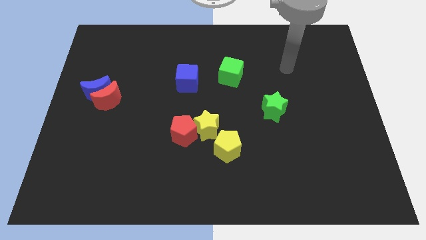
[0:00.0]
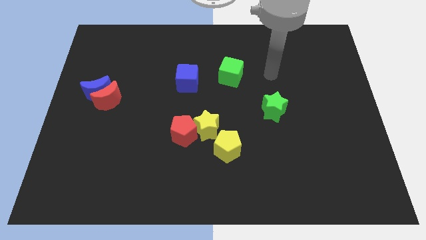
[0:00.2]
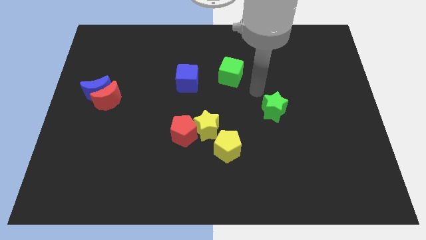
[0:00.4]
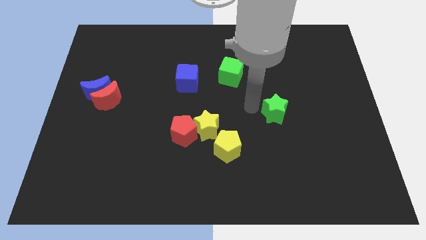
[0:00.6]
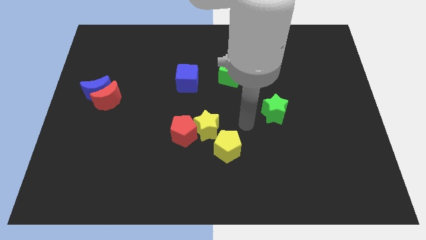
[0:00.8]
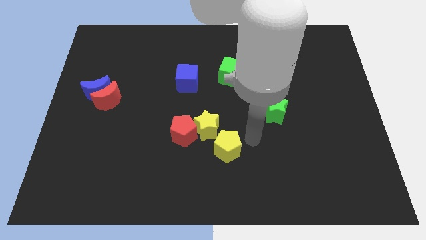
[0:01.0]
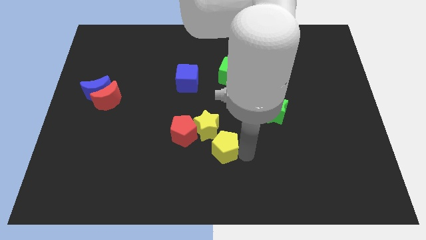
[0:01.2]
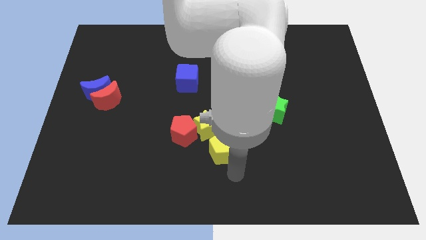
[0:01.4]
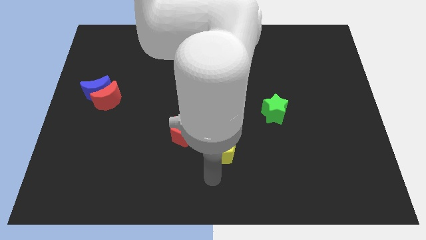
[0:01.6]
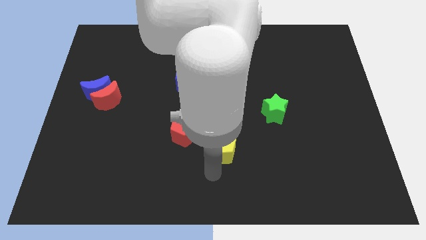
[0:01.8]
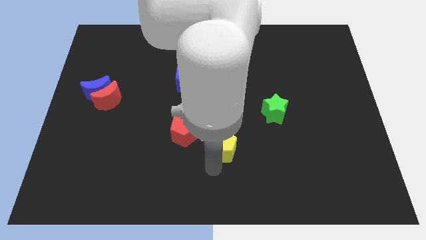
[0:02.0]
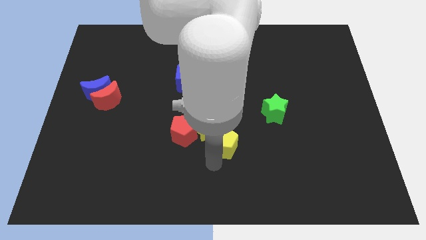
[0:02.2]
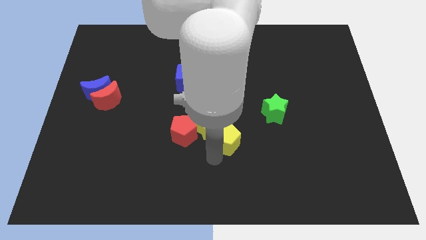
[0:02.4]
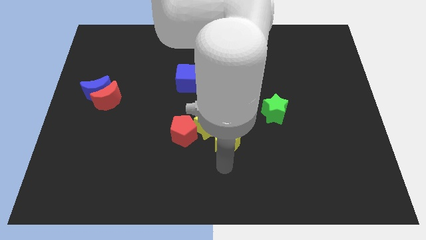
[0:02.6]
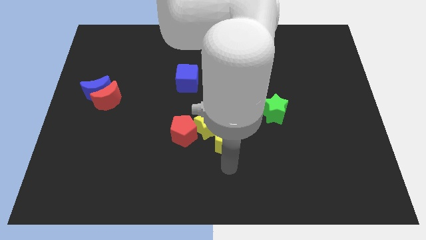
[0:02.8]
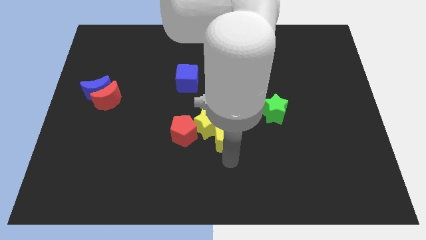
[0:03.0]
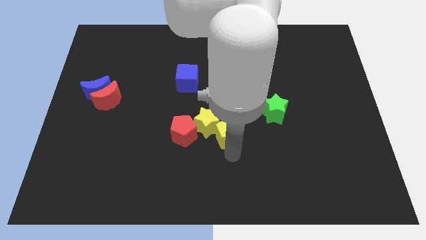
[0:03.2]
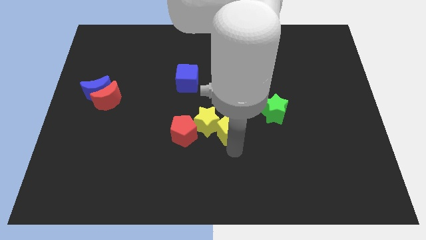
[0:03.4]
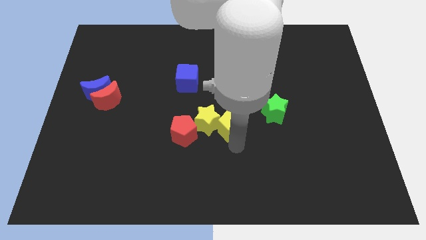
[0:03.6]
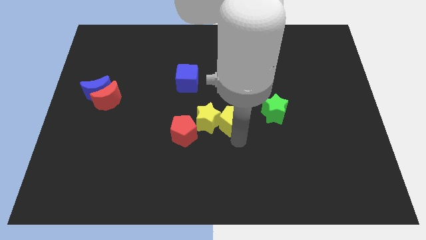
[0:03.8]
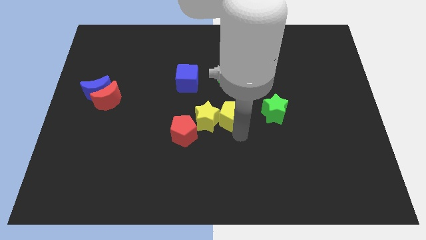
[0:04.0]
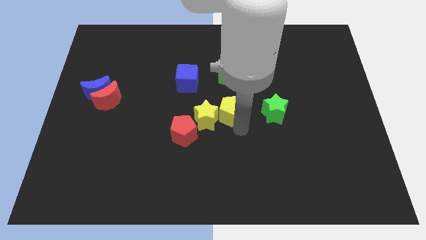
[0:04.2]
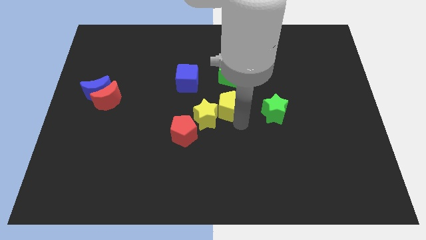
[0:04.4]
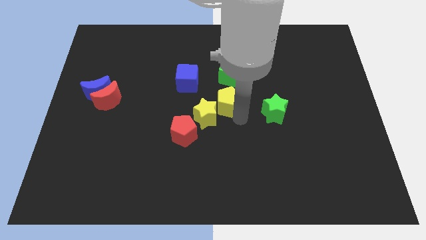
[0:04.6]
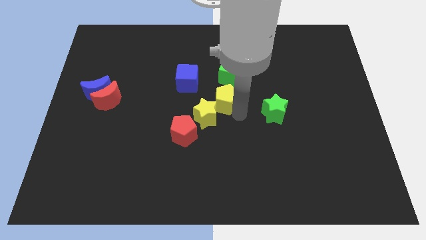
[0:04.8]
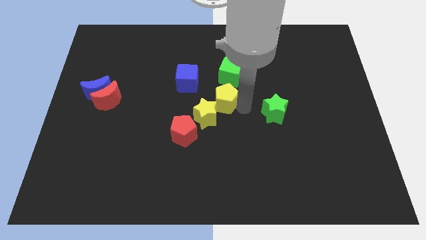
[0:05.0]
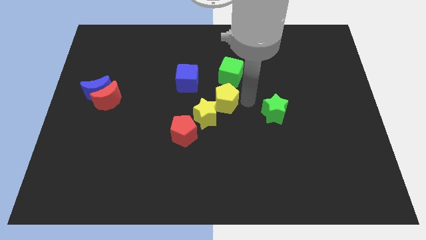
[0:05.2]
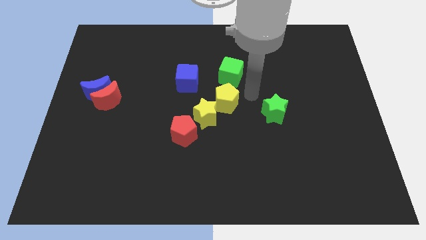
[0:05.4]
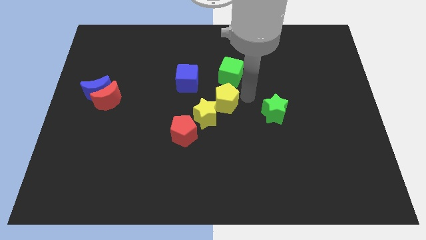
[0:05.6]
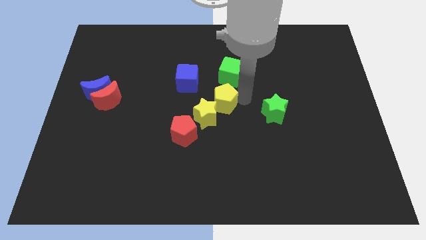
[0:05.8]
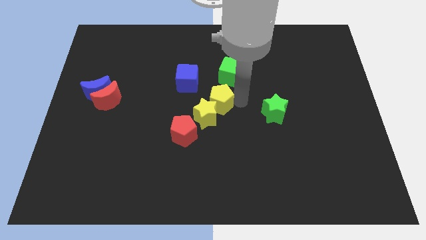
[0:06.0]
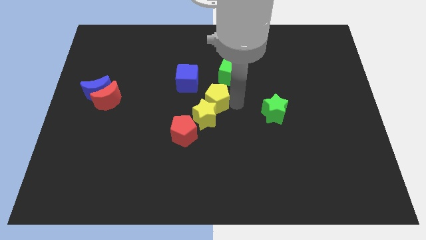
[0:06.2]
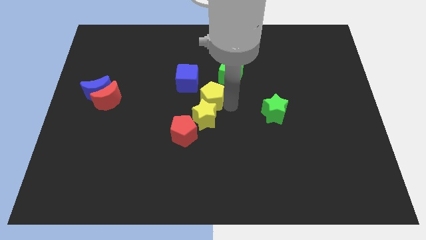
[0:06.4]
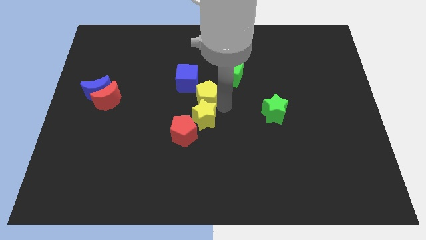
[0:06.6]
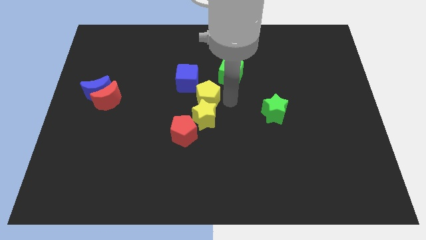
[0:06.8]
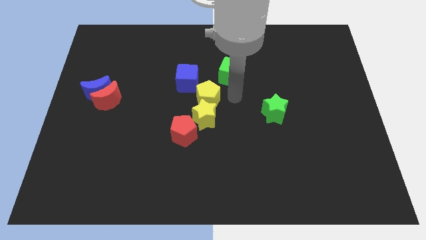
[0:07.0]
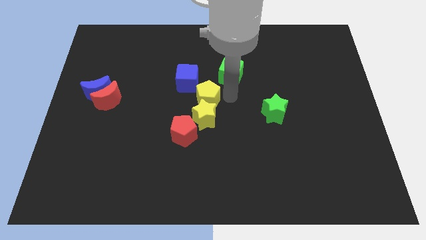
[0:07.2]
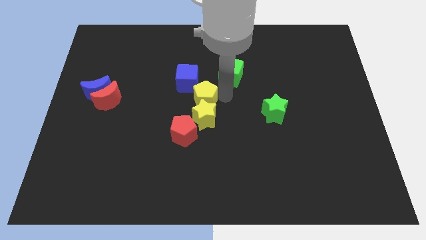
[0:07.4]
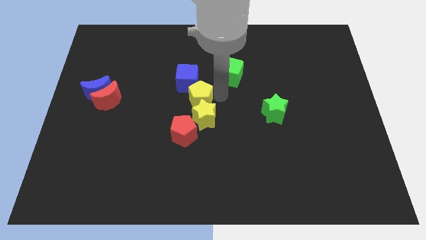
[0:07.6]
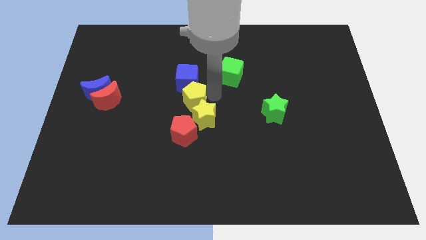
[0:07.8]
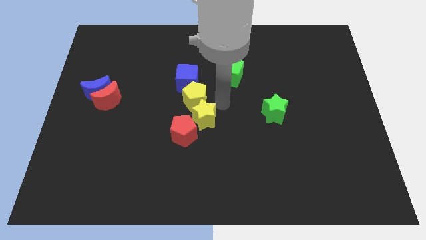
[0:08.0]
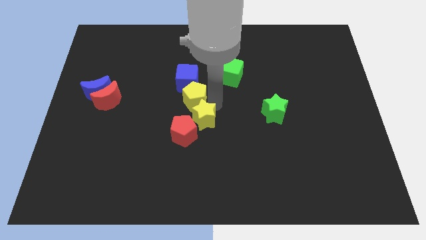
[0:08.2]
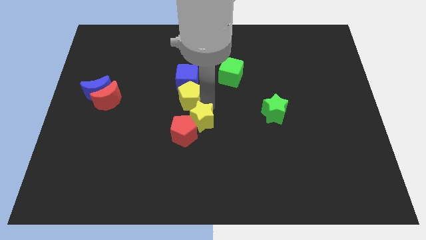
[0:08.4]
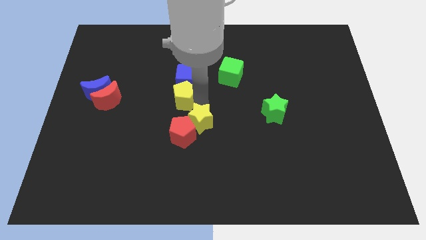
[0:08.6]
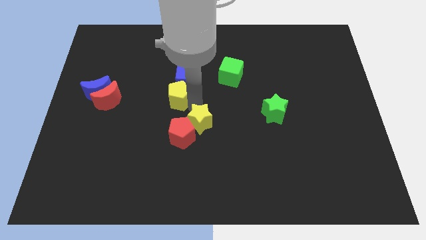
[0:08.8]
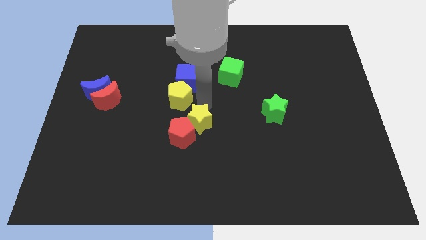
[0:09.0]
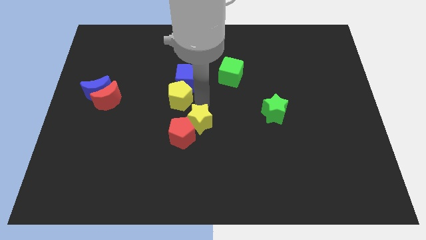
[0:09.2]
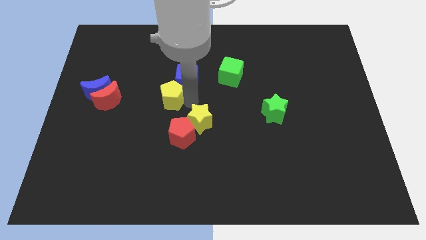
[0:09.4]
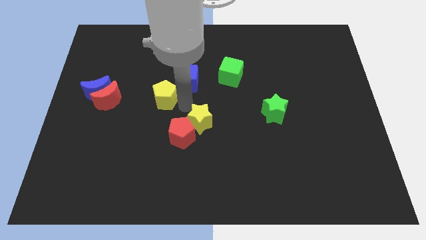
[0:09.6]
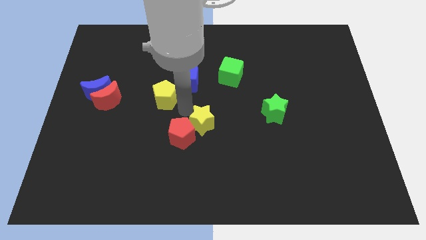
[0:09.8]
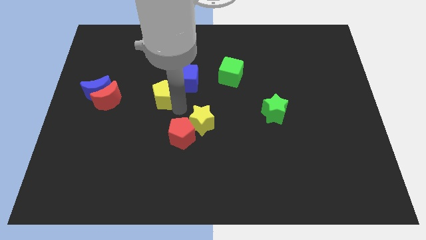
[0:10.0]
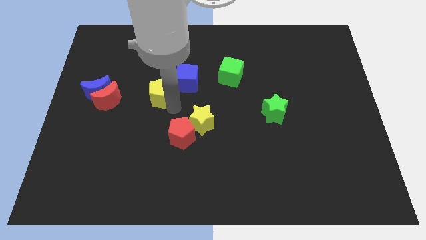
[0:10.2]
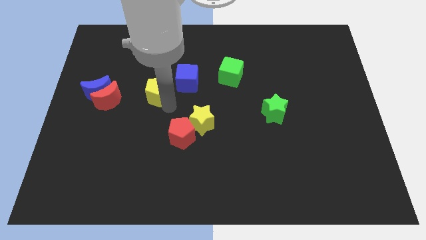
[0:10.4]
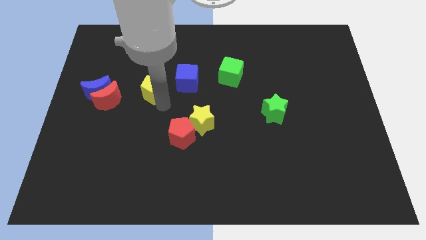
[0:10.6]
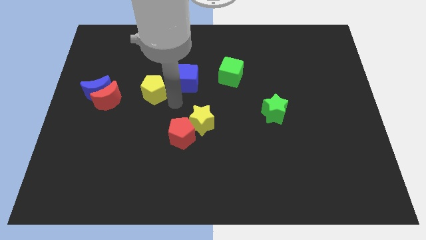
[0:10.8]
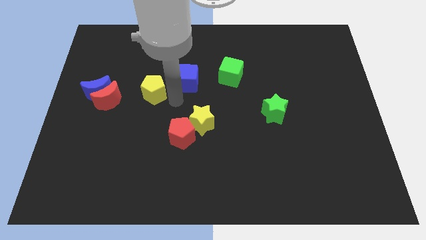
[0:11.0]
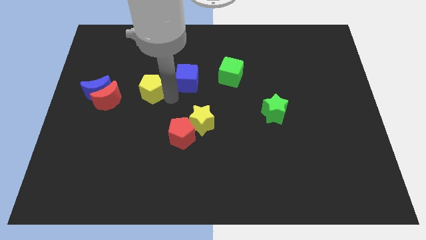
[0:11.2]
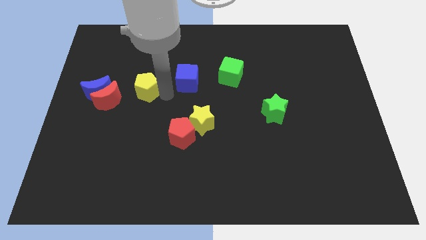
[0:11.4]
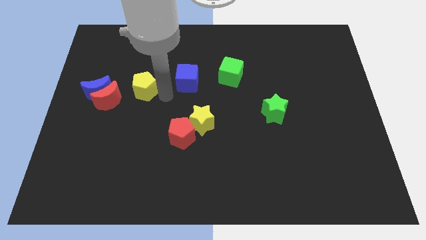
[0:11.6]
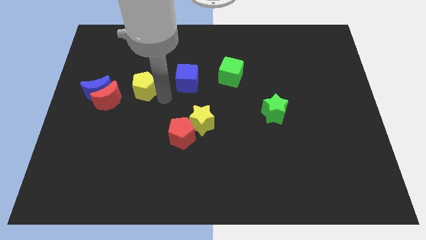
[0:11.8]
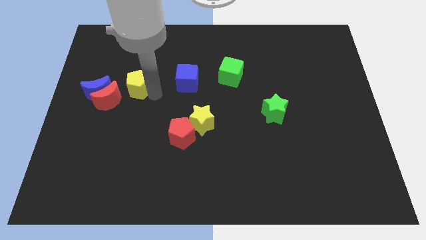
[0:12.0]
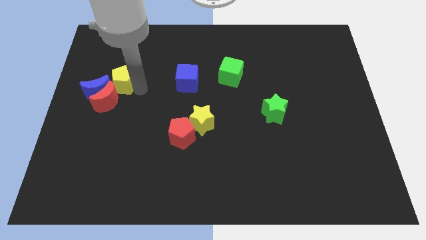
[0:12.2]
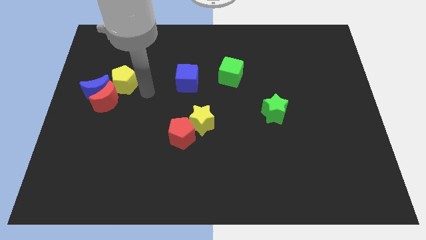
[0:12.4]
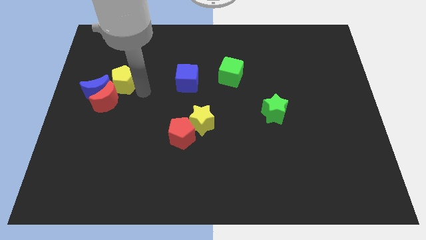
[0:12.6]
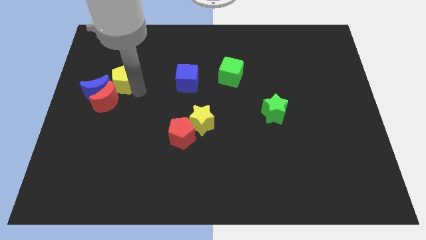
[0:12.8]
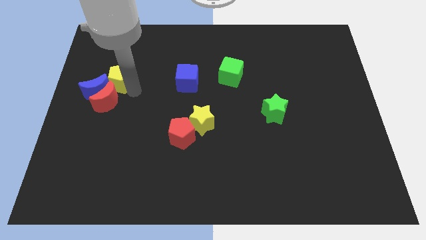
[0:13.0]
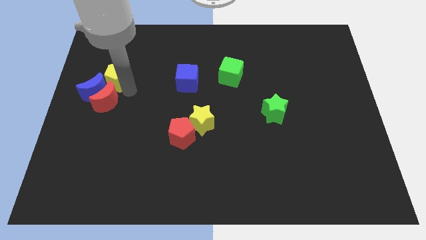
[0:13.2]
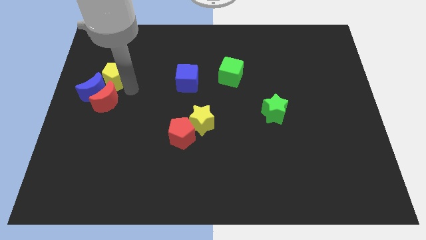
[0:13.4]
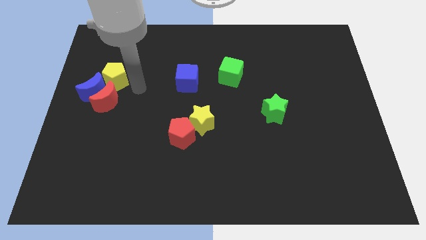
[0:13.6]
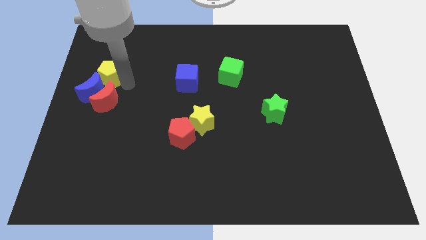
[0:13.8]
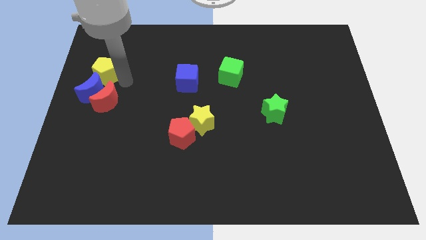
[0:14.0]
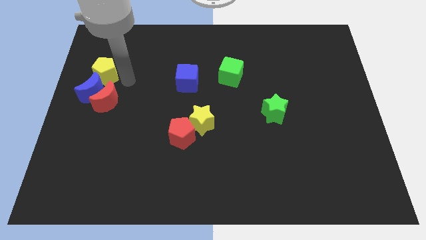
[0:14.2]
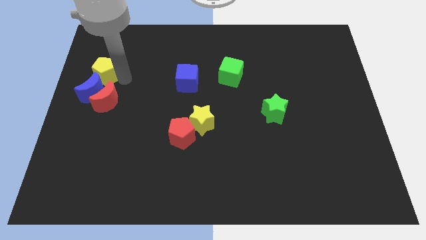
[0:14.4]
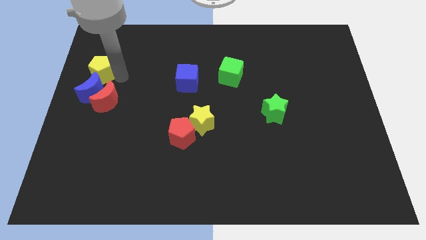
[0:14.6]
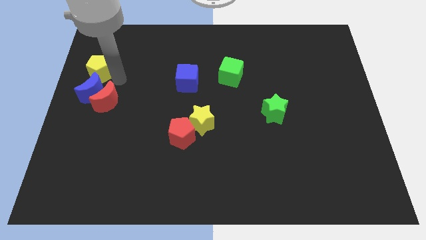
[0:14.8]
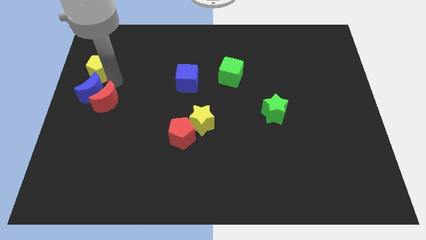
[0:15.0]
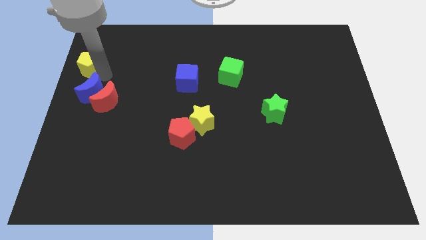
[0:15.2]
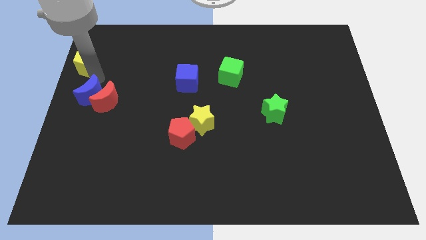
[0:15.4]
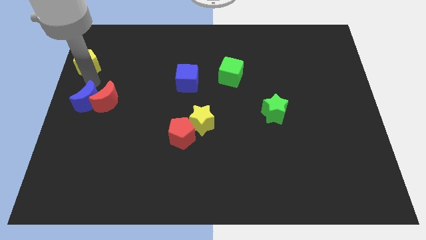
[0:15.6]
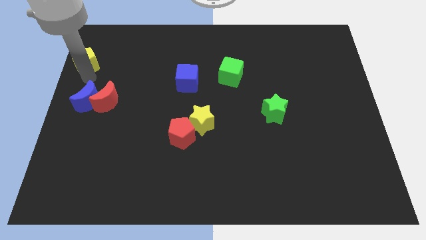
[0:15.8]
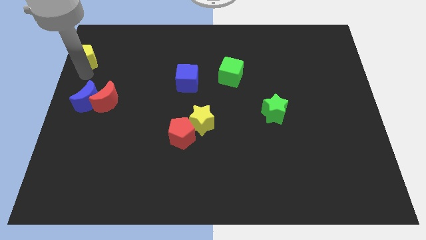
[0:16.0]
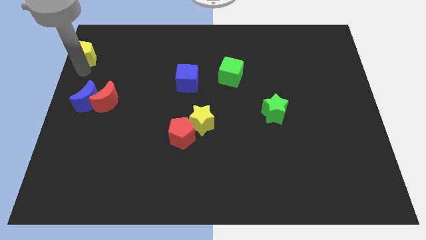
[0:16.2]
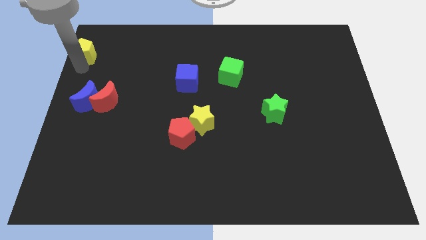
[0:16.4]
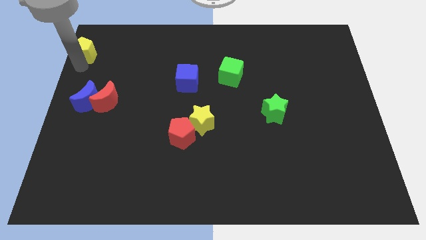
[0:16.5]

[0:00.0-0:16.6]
slide the yellow pentagon to the top left of the board
